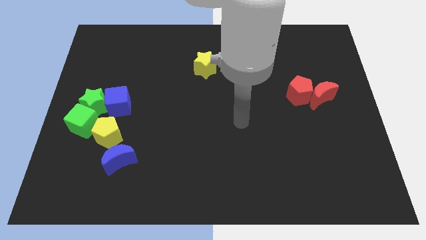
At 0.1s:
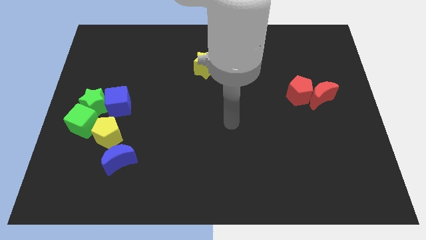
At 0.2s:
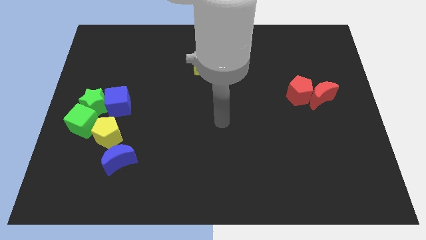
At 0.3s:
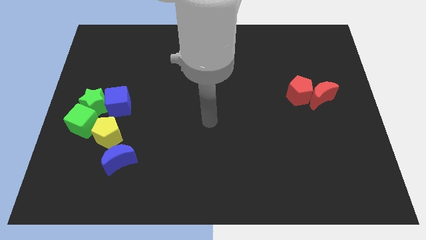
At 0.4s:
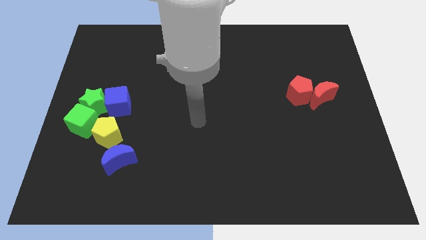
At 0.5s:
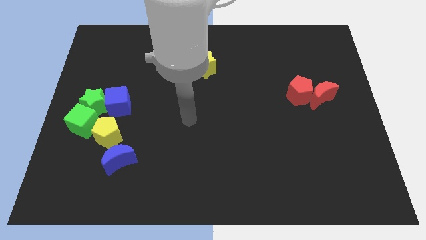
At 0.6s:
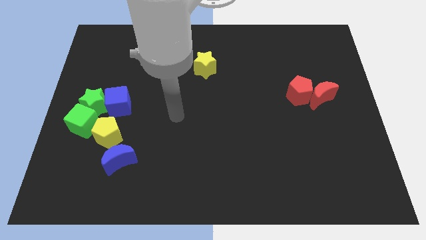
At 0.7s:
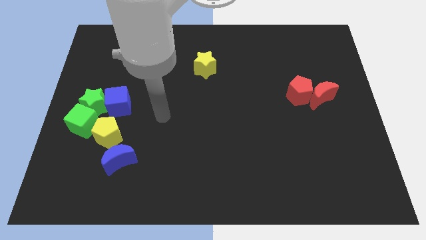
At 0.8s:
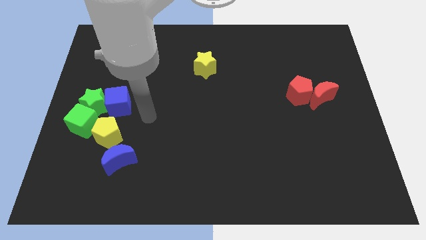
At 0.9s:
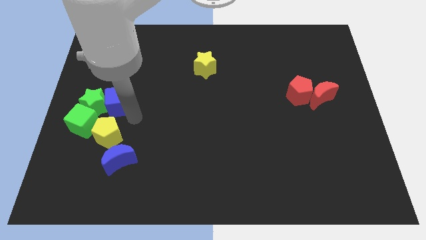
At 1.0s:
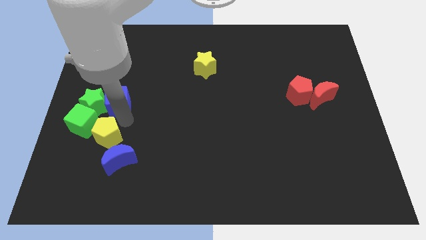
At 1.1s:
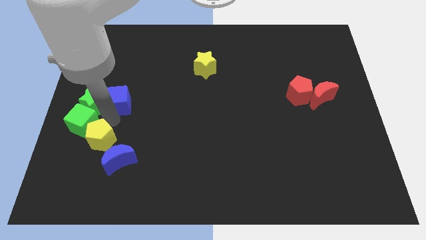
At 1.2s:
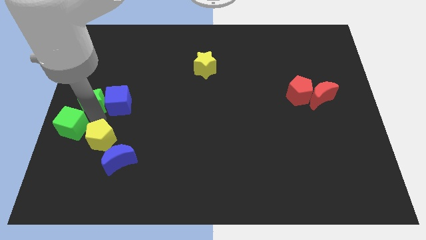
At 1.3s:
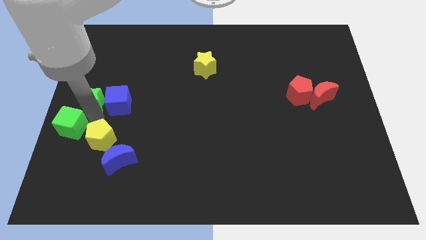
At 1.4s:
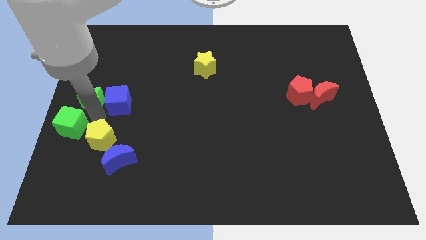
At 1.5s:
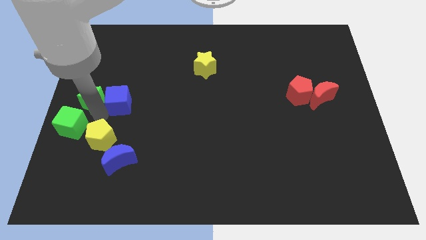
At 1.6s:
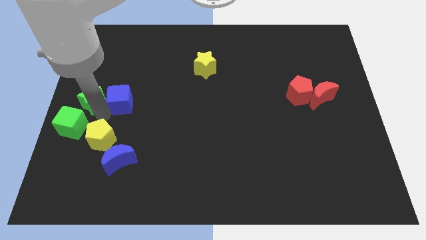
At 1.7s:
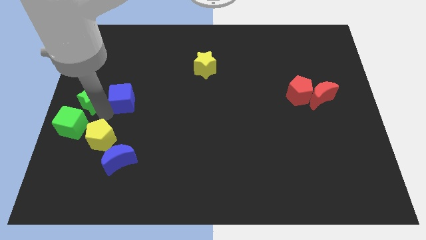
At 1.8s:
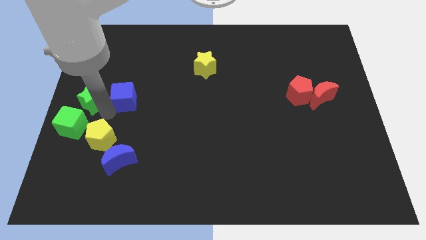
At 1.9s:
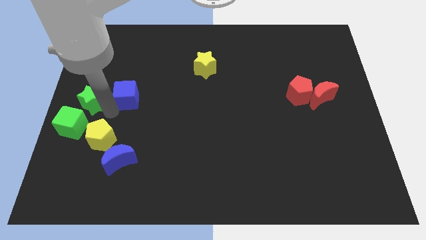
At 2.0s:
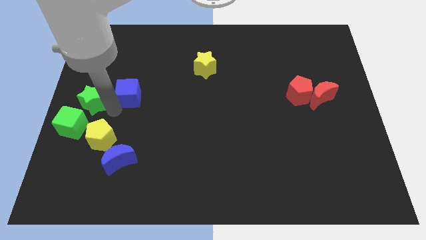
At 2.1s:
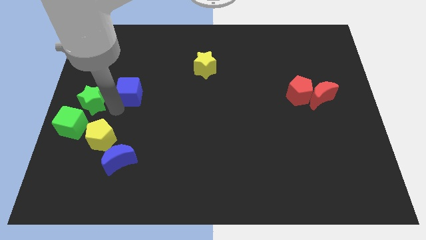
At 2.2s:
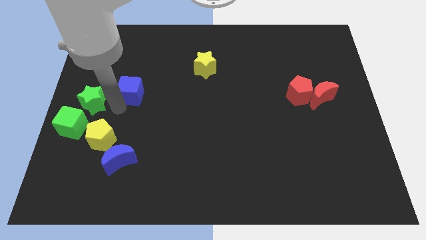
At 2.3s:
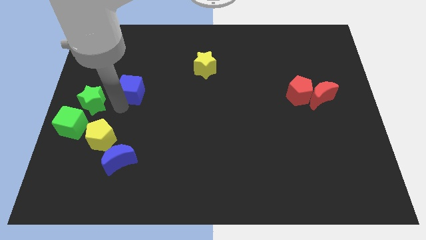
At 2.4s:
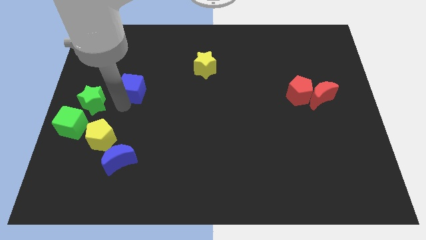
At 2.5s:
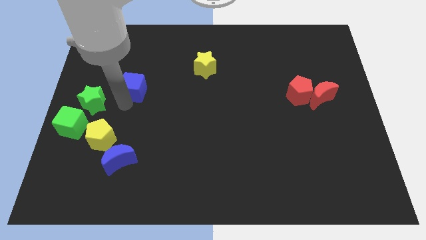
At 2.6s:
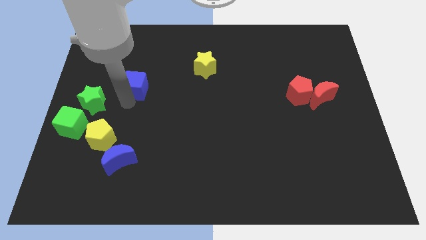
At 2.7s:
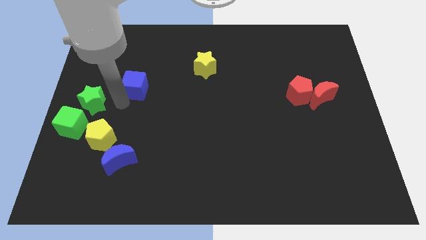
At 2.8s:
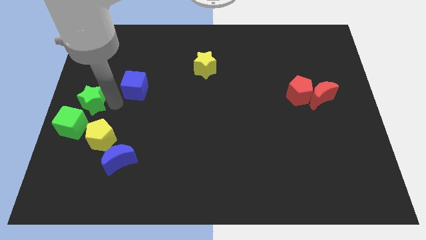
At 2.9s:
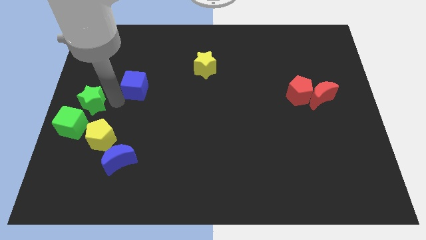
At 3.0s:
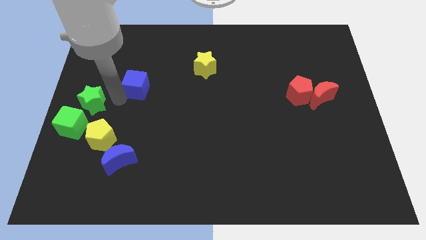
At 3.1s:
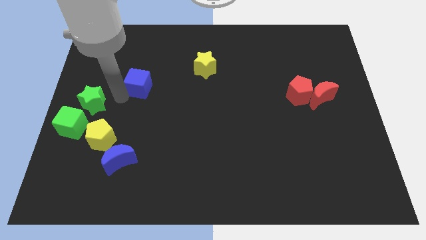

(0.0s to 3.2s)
push the blue cube upwards and then to the right a little

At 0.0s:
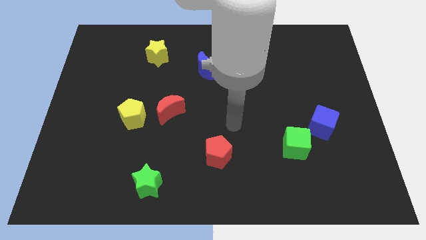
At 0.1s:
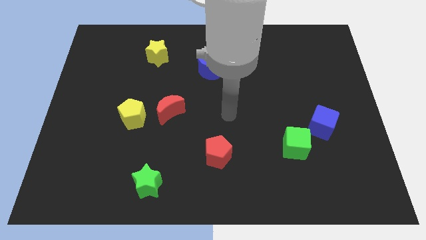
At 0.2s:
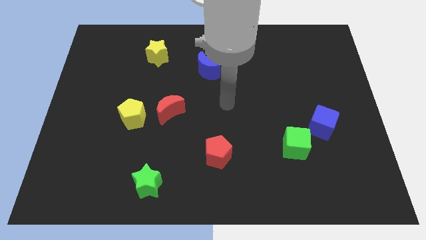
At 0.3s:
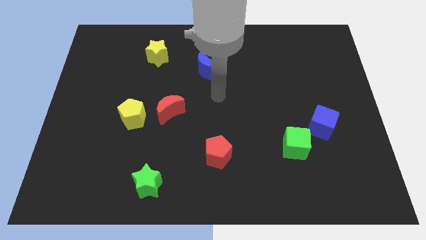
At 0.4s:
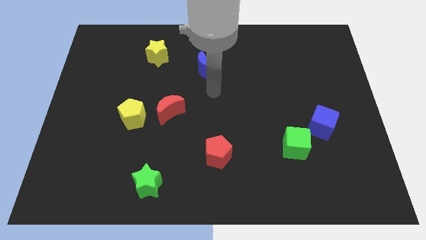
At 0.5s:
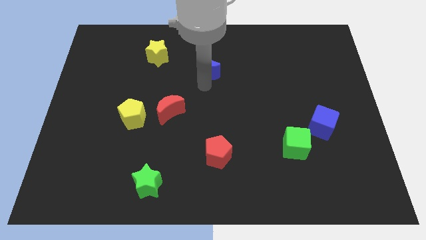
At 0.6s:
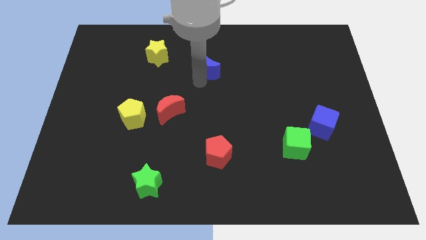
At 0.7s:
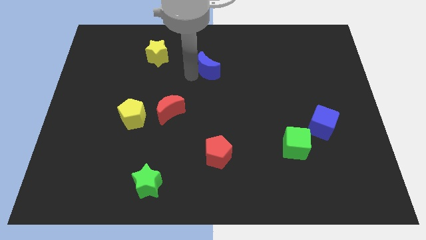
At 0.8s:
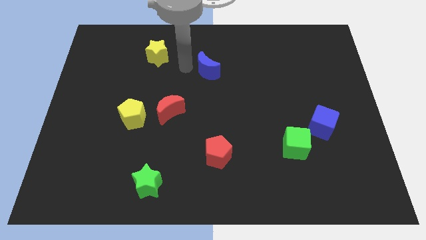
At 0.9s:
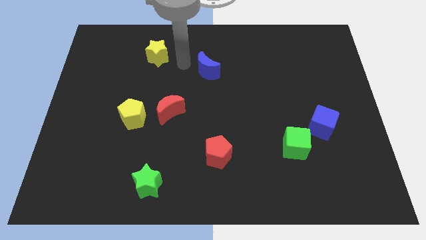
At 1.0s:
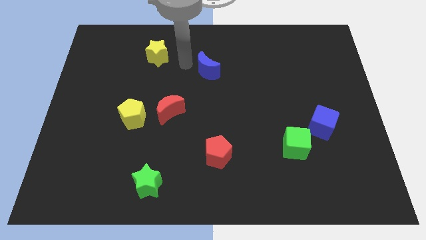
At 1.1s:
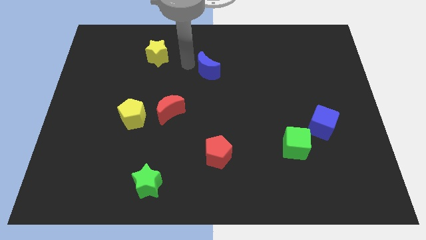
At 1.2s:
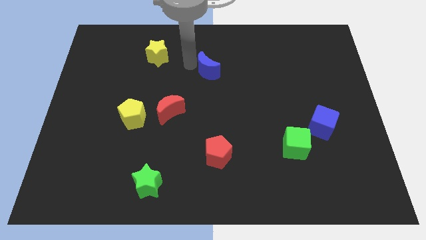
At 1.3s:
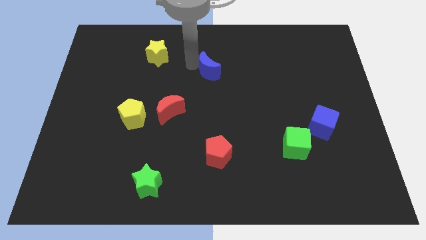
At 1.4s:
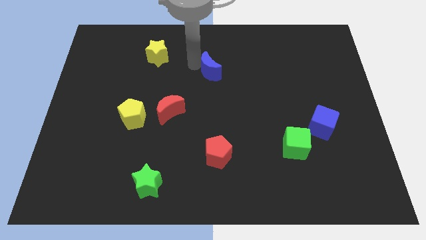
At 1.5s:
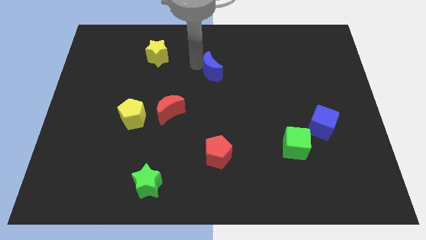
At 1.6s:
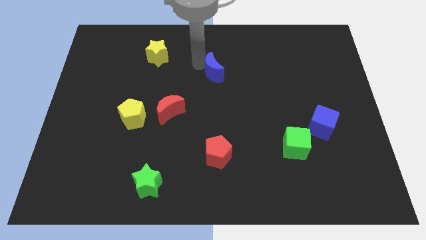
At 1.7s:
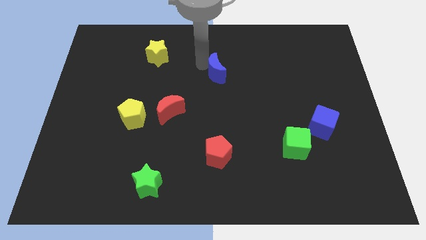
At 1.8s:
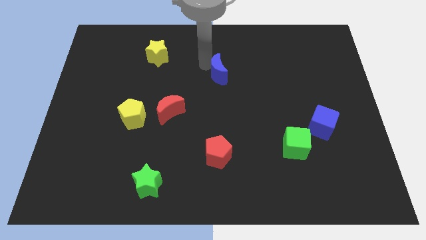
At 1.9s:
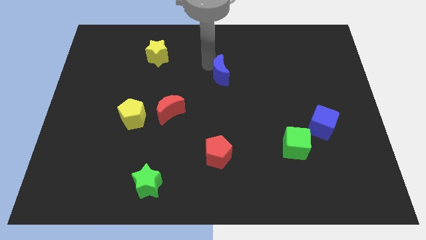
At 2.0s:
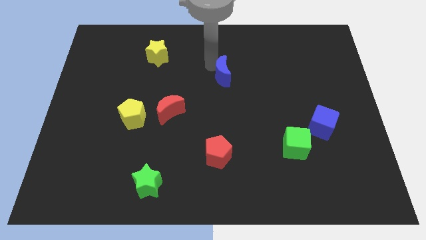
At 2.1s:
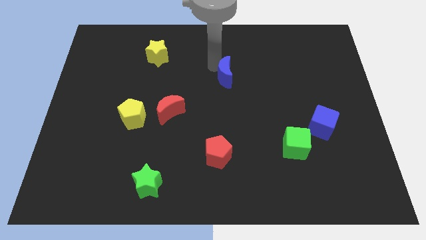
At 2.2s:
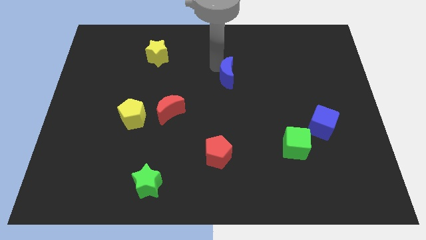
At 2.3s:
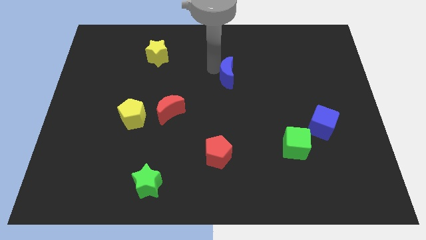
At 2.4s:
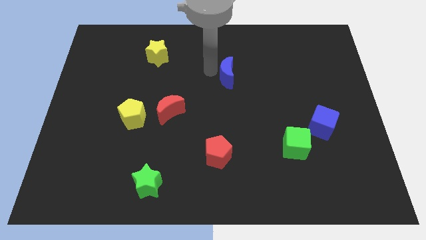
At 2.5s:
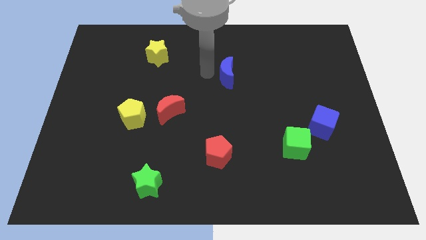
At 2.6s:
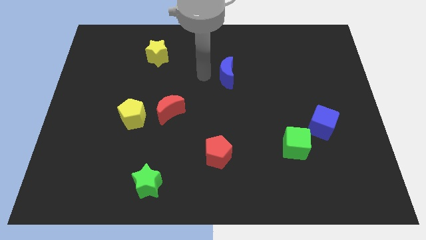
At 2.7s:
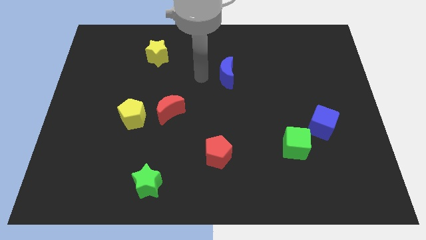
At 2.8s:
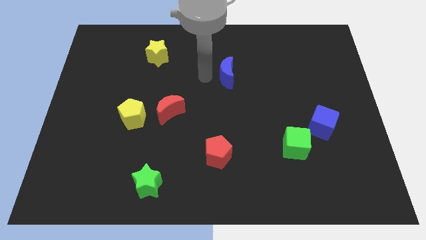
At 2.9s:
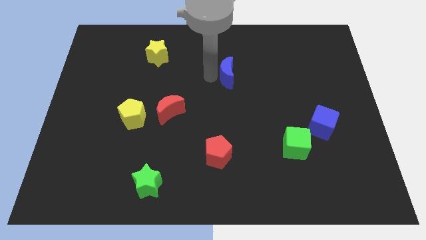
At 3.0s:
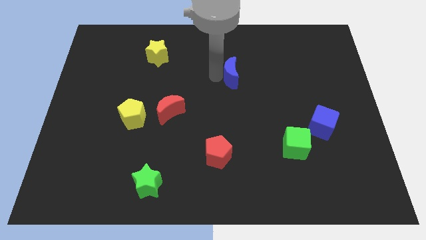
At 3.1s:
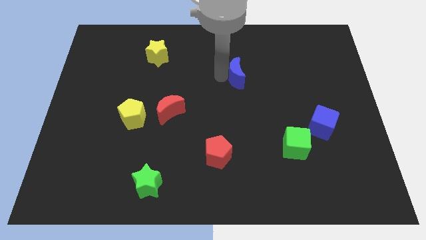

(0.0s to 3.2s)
slightly push the blue moon right

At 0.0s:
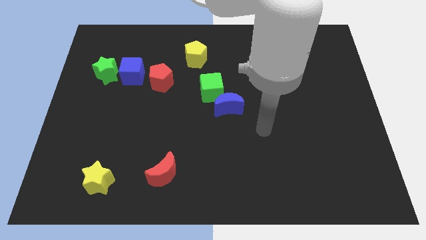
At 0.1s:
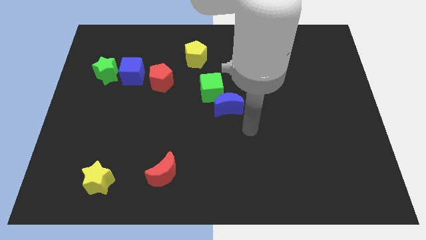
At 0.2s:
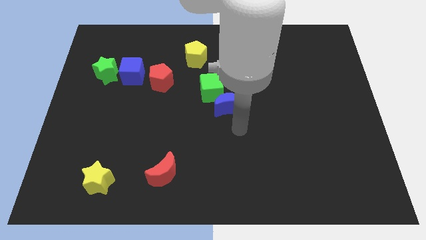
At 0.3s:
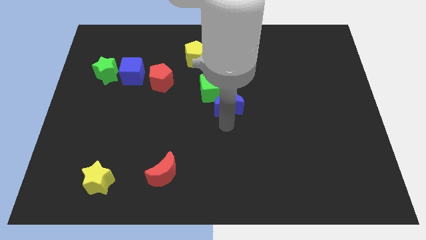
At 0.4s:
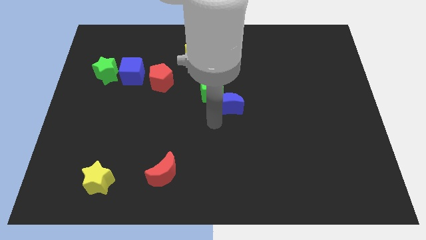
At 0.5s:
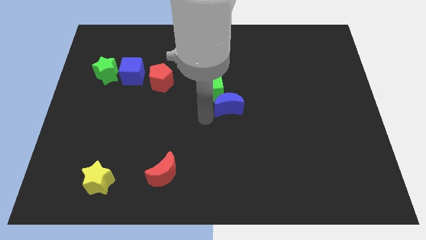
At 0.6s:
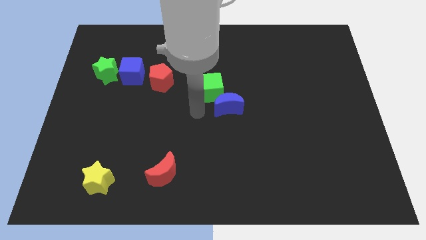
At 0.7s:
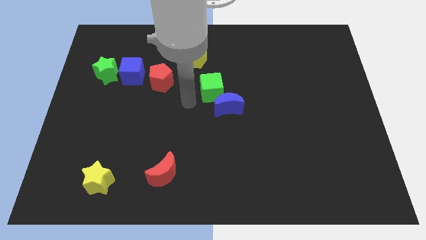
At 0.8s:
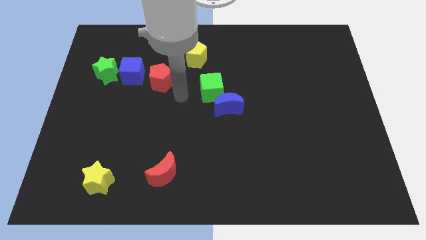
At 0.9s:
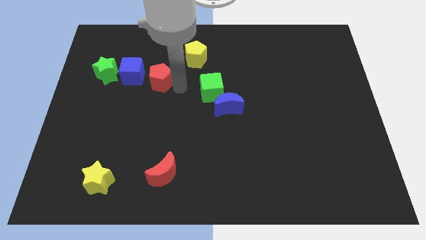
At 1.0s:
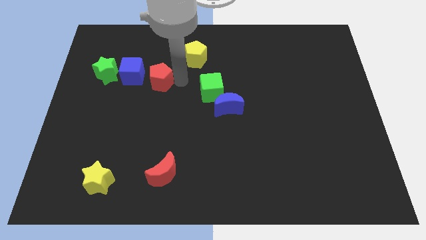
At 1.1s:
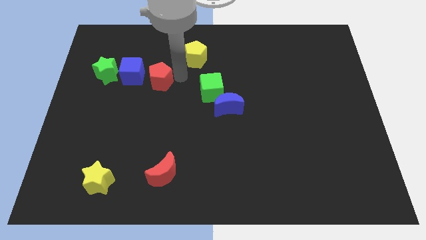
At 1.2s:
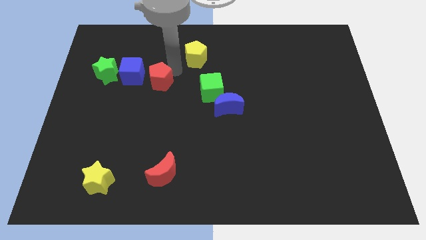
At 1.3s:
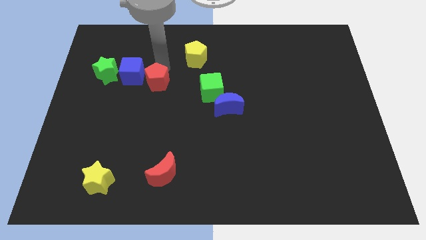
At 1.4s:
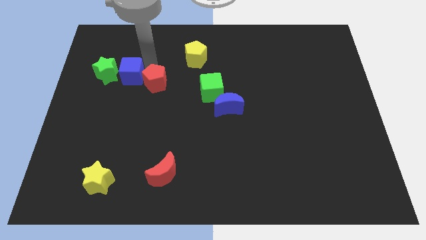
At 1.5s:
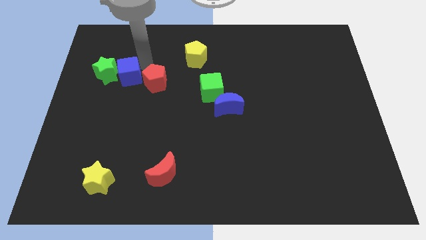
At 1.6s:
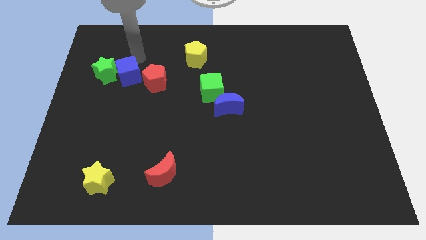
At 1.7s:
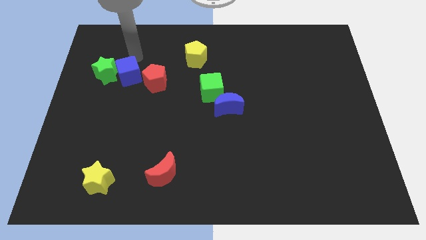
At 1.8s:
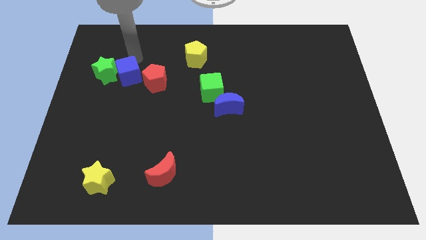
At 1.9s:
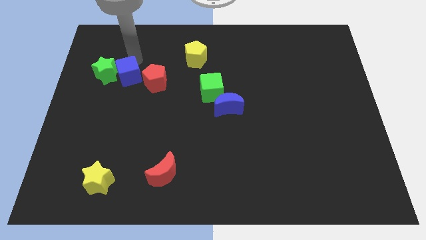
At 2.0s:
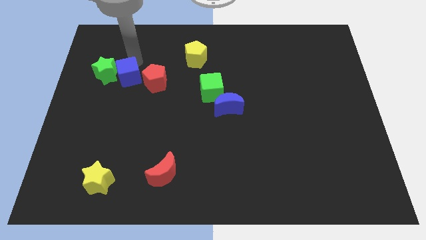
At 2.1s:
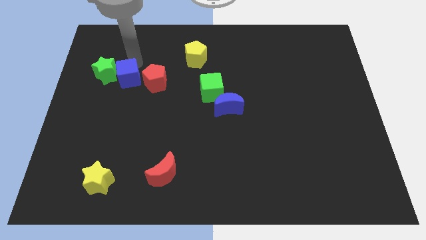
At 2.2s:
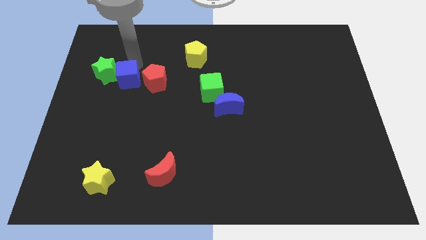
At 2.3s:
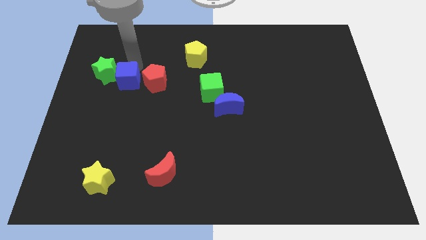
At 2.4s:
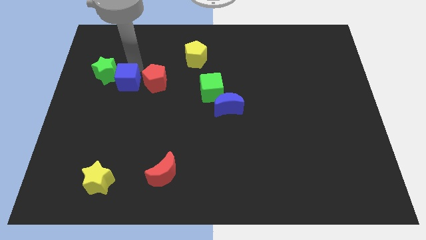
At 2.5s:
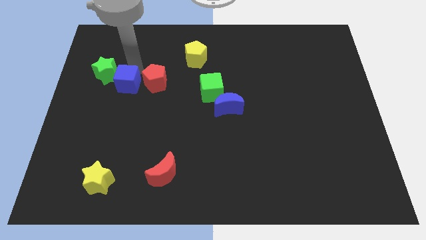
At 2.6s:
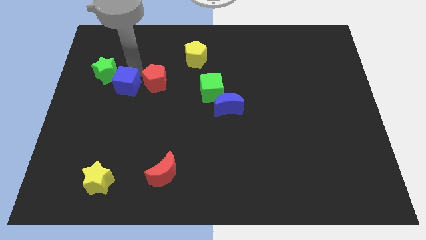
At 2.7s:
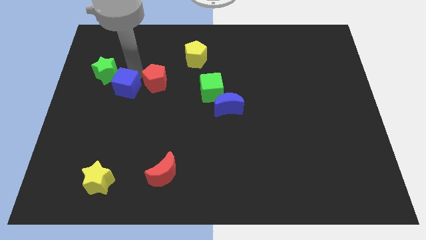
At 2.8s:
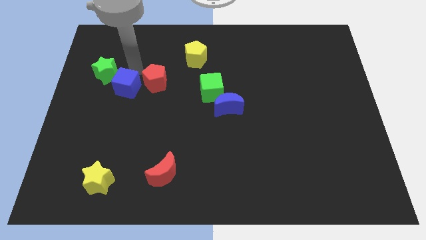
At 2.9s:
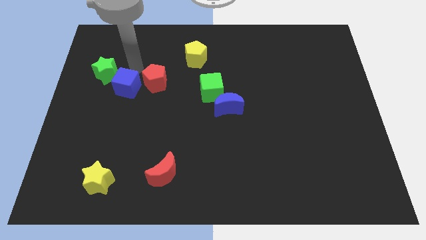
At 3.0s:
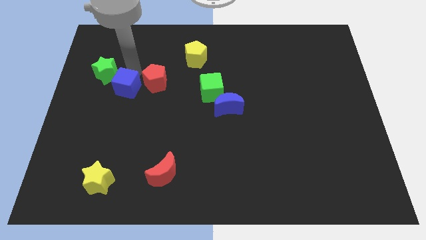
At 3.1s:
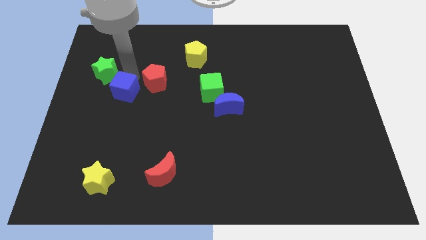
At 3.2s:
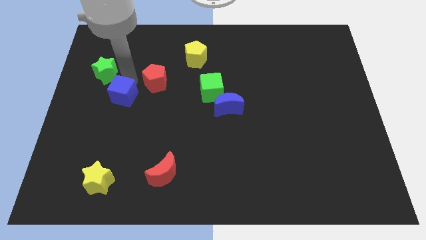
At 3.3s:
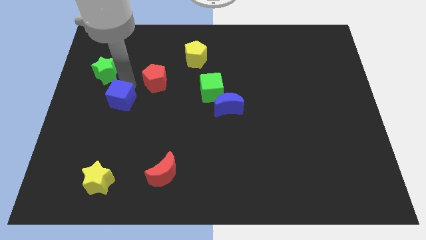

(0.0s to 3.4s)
move the blue cube a bit down
